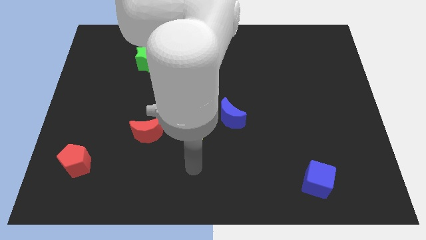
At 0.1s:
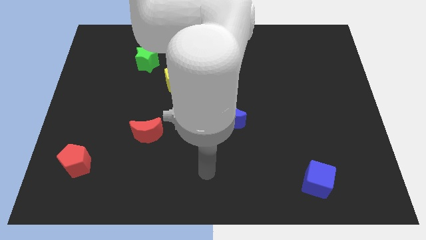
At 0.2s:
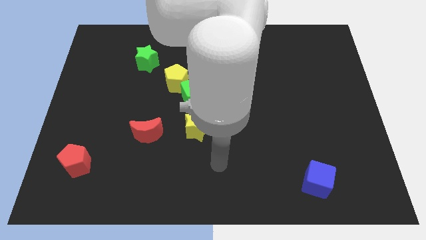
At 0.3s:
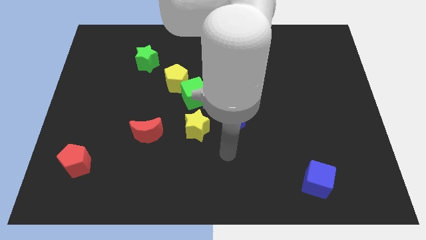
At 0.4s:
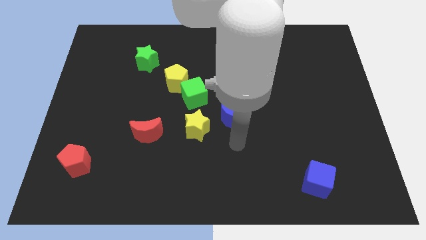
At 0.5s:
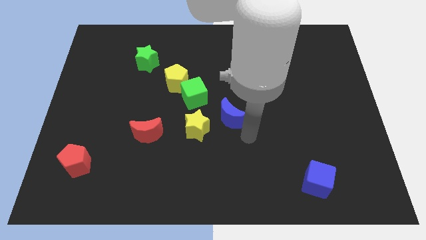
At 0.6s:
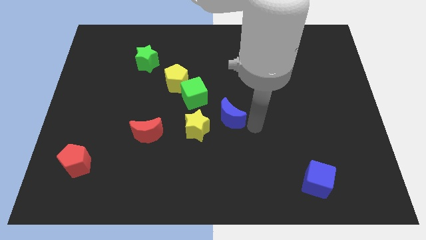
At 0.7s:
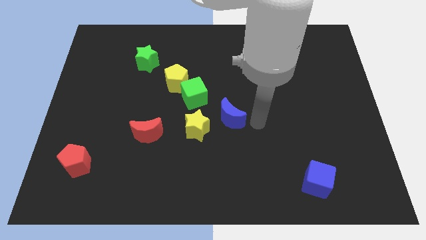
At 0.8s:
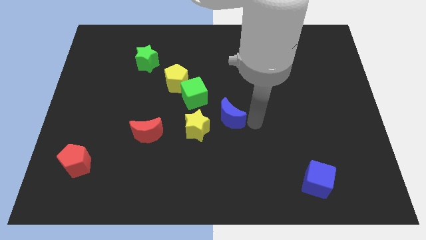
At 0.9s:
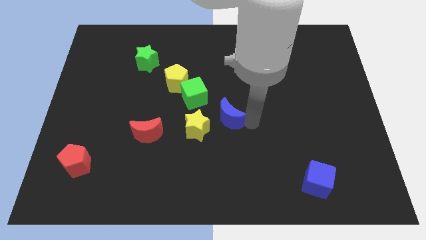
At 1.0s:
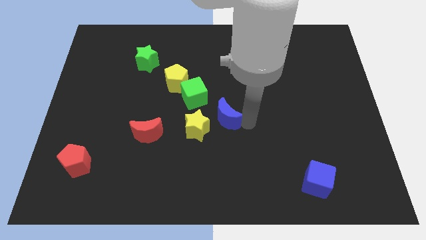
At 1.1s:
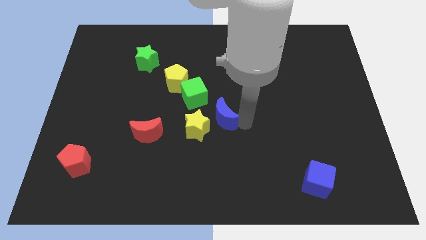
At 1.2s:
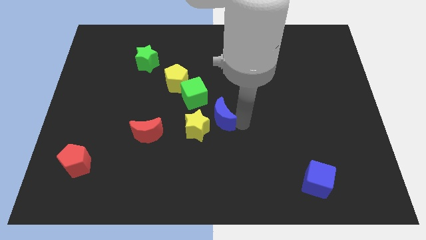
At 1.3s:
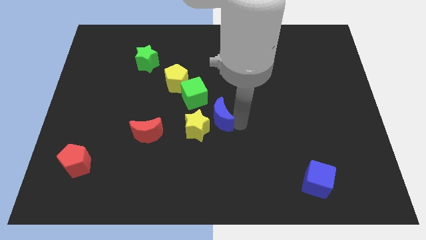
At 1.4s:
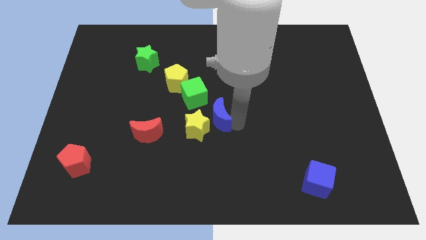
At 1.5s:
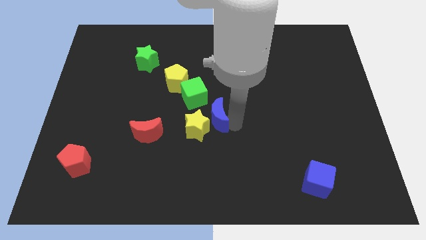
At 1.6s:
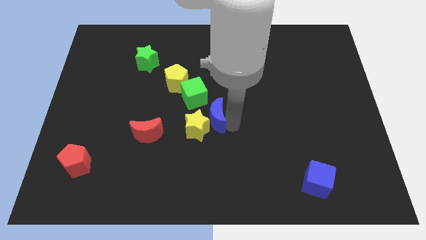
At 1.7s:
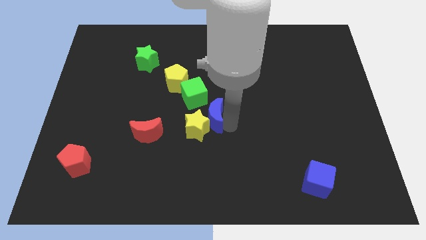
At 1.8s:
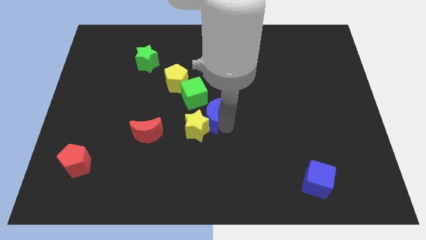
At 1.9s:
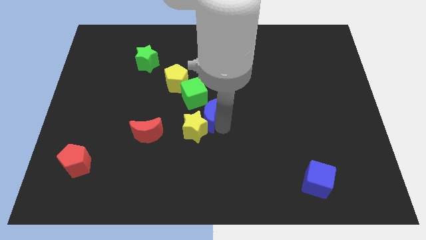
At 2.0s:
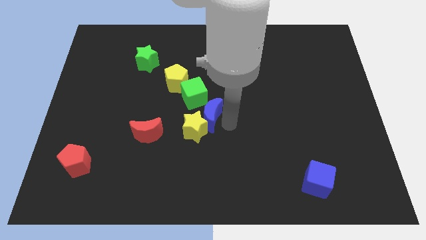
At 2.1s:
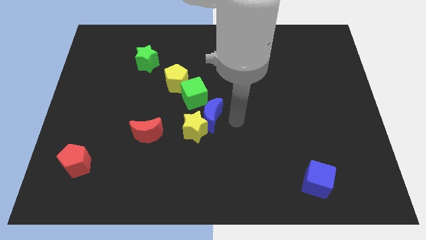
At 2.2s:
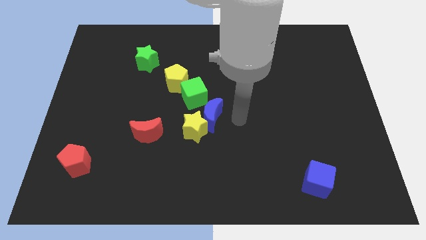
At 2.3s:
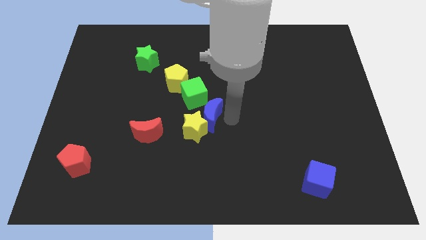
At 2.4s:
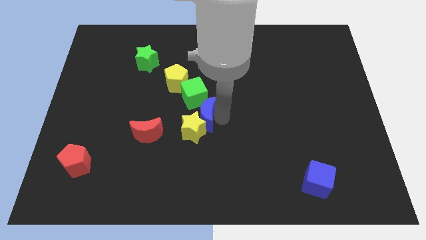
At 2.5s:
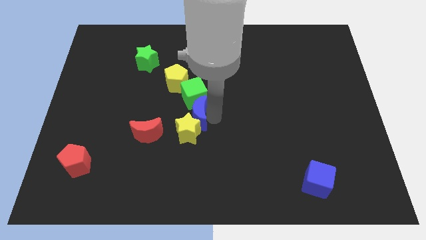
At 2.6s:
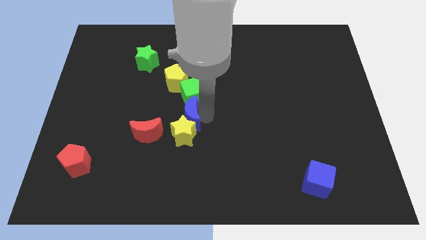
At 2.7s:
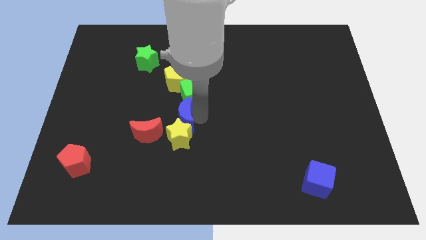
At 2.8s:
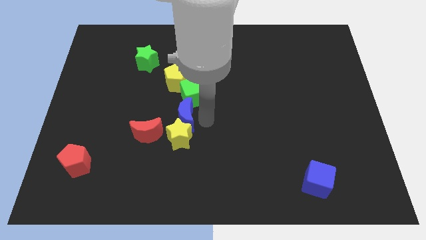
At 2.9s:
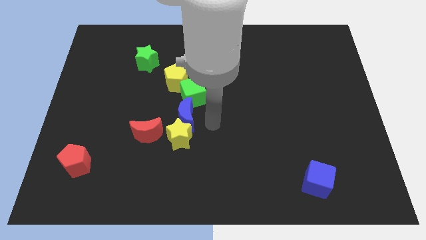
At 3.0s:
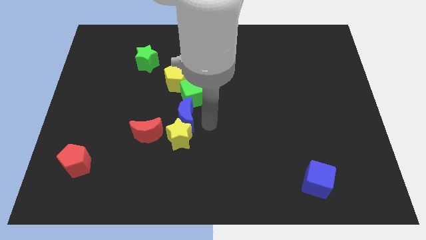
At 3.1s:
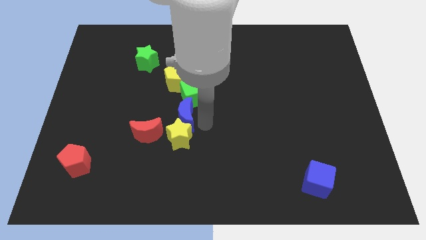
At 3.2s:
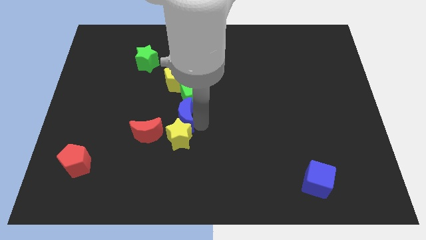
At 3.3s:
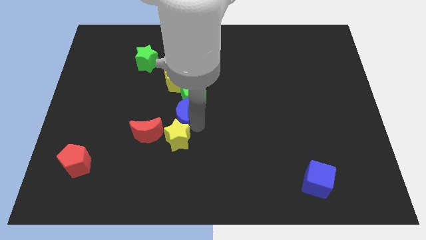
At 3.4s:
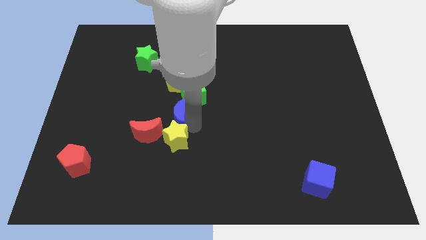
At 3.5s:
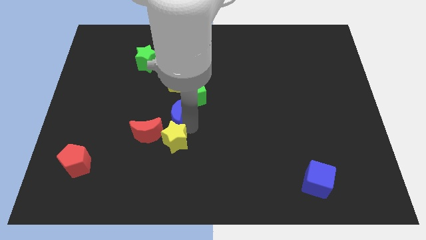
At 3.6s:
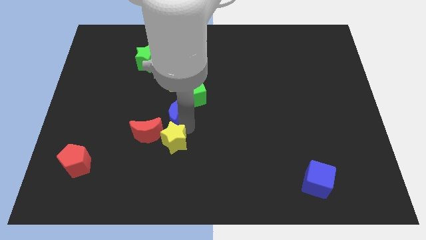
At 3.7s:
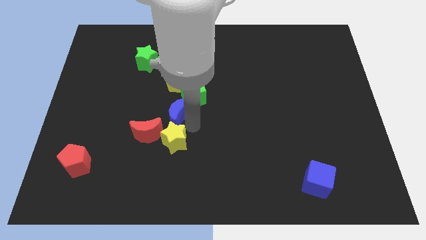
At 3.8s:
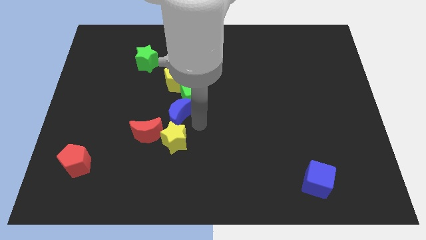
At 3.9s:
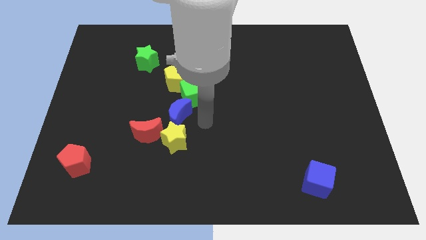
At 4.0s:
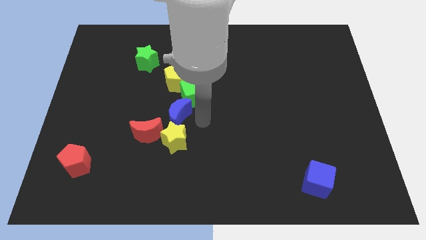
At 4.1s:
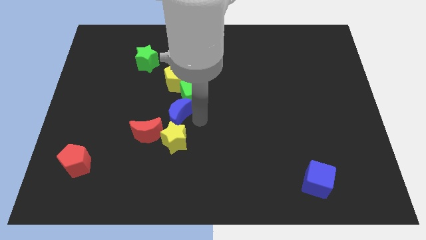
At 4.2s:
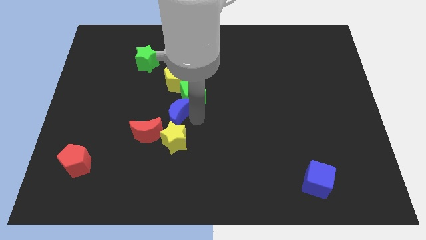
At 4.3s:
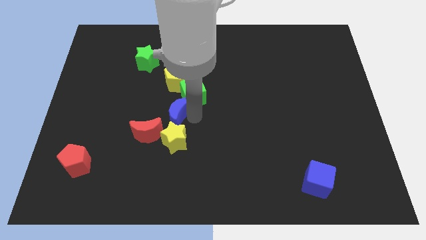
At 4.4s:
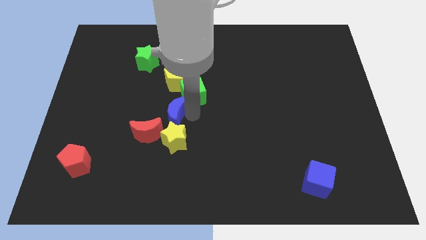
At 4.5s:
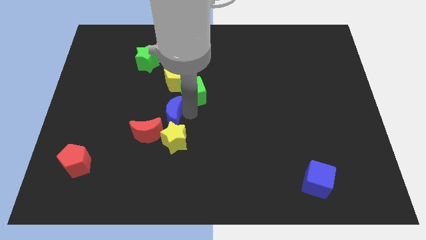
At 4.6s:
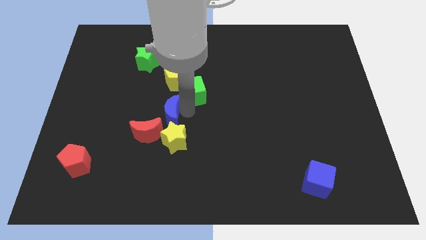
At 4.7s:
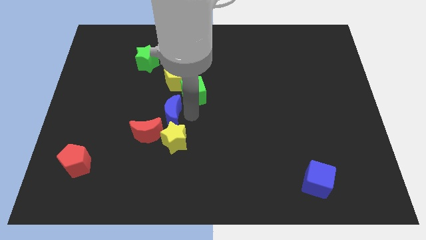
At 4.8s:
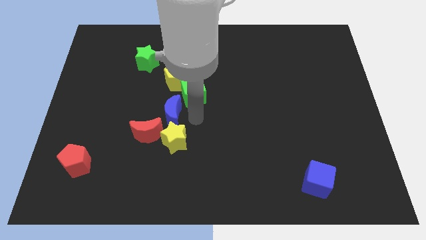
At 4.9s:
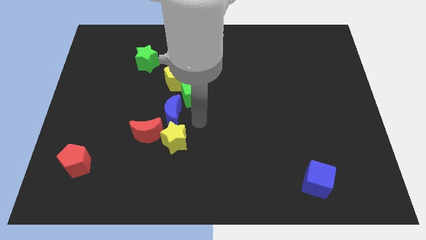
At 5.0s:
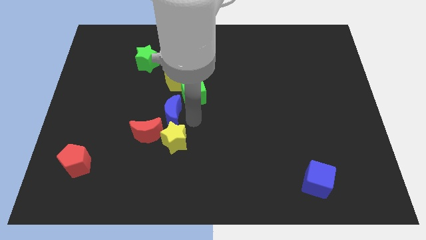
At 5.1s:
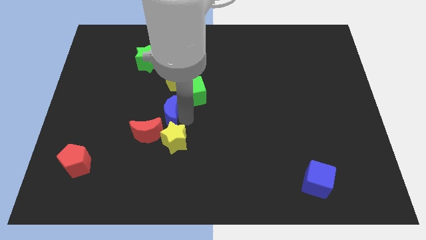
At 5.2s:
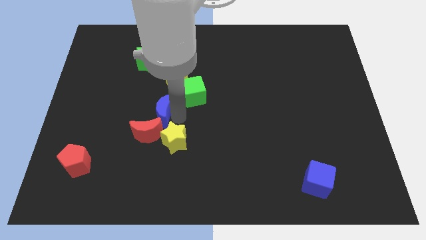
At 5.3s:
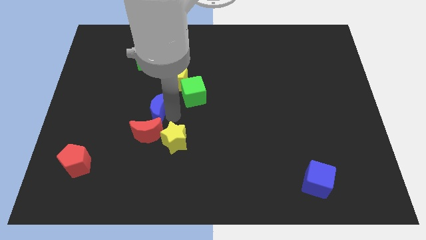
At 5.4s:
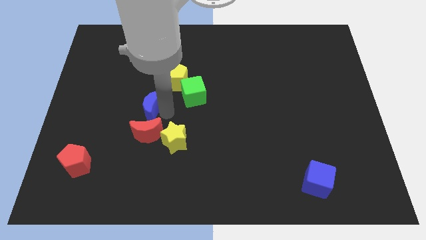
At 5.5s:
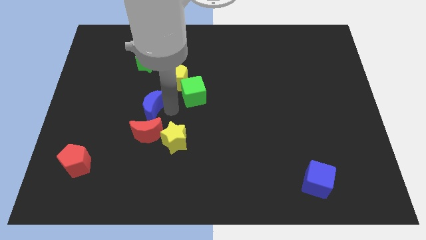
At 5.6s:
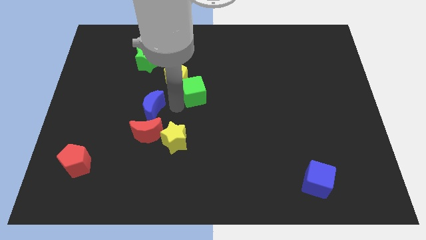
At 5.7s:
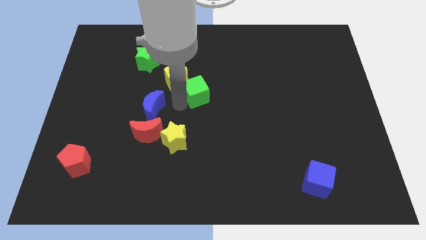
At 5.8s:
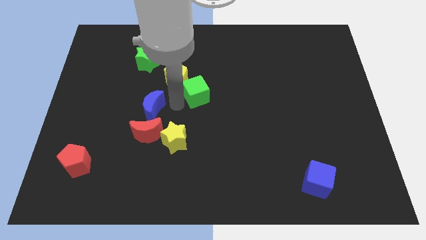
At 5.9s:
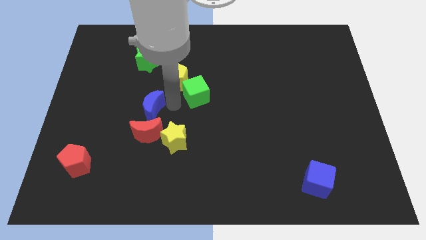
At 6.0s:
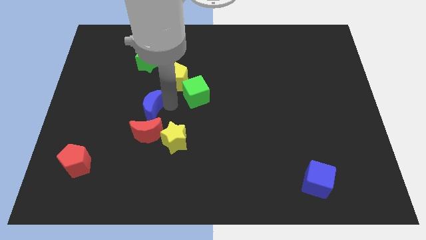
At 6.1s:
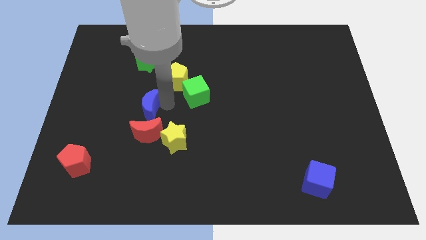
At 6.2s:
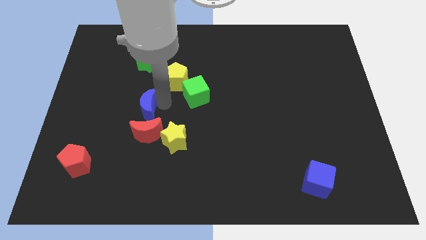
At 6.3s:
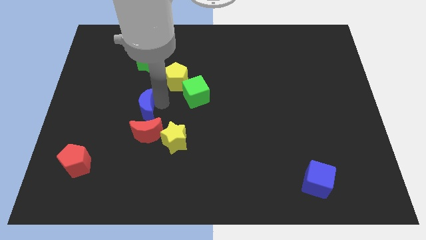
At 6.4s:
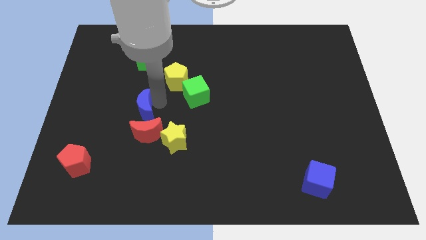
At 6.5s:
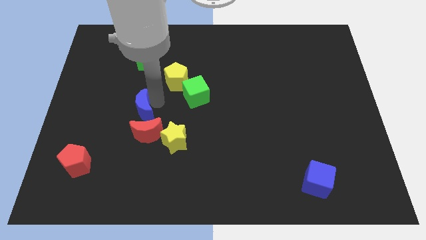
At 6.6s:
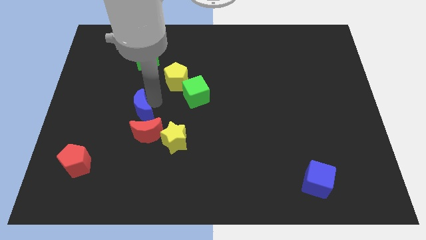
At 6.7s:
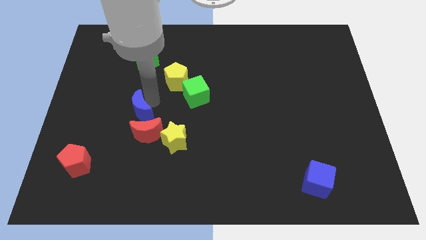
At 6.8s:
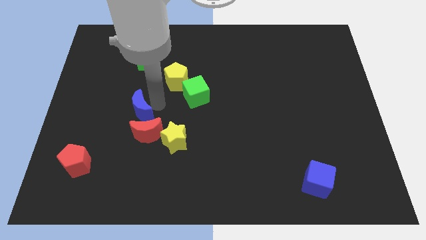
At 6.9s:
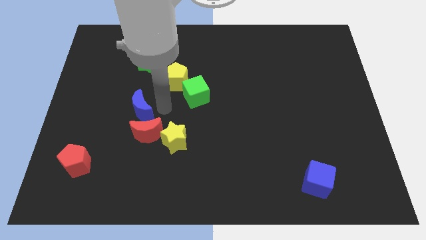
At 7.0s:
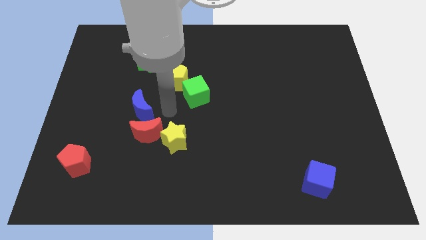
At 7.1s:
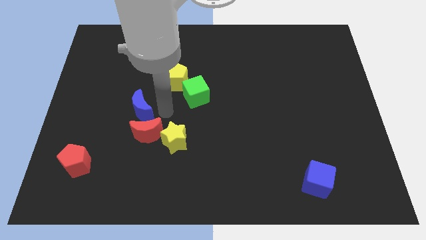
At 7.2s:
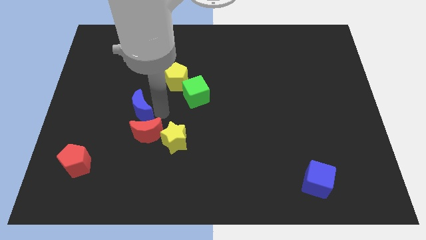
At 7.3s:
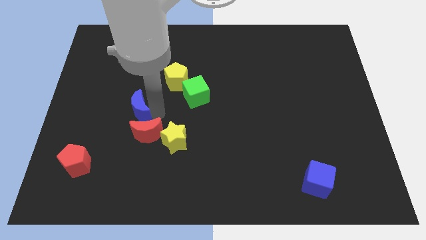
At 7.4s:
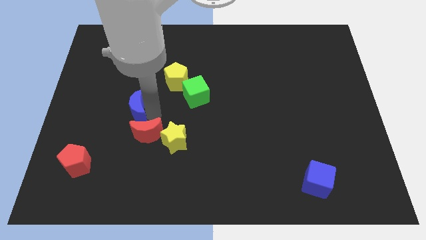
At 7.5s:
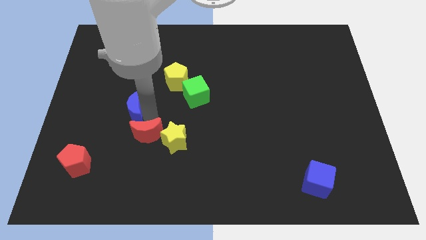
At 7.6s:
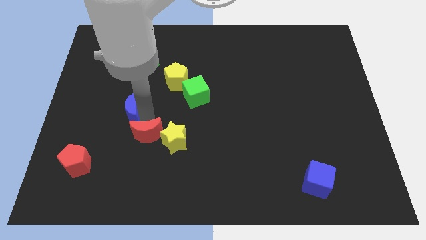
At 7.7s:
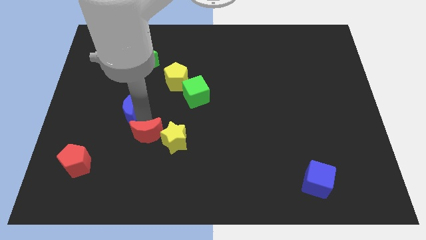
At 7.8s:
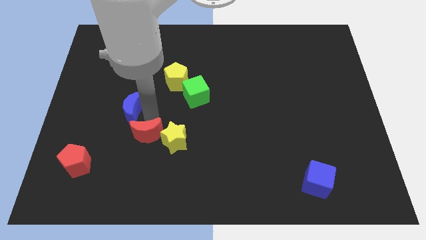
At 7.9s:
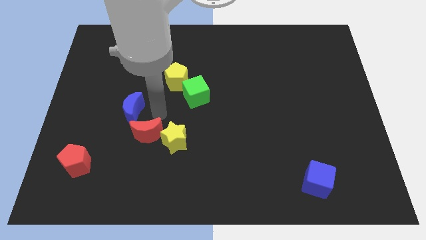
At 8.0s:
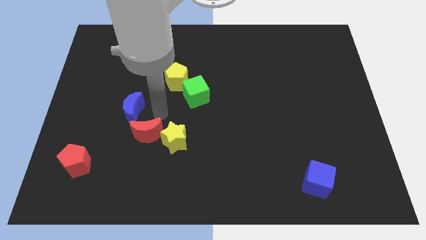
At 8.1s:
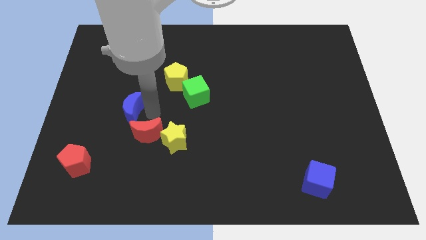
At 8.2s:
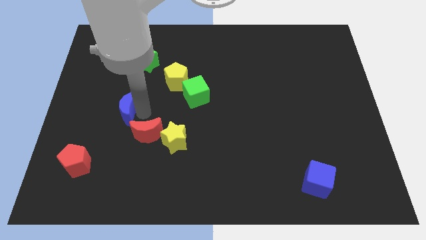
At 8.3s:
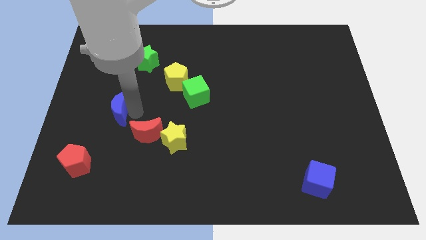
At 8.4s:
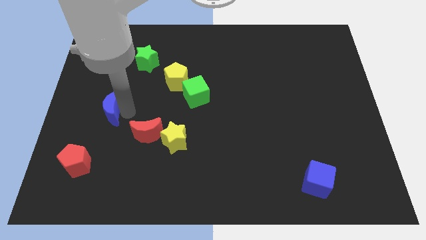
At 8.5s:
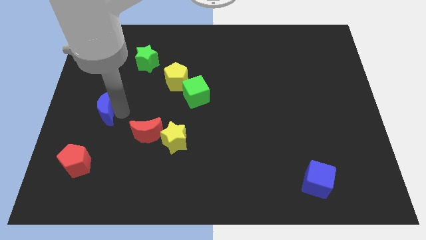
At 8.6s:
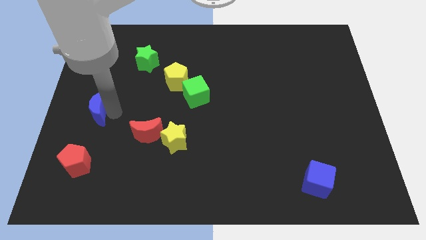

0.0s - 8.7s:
slide the blue moon to the center left
